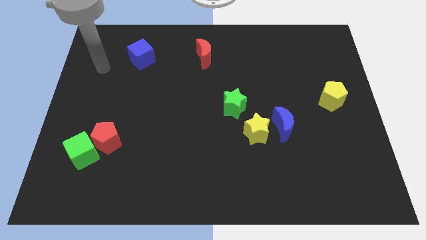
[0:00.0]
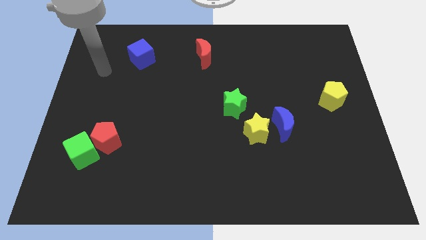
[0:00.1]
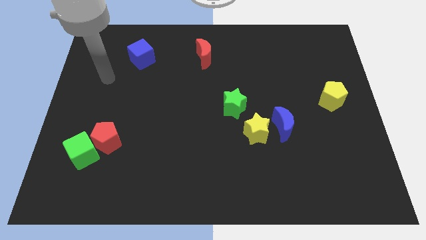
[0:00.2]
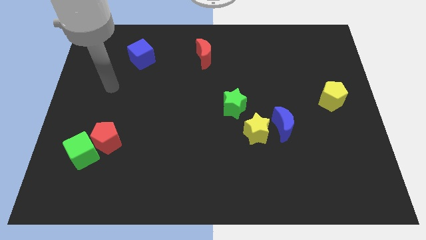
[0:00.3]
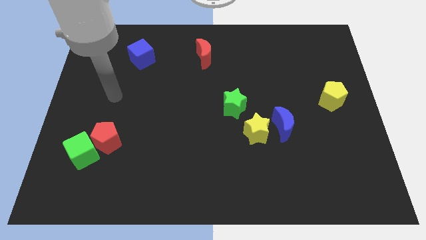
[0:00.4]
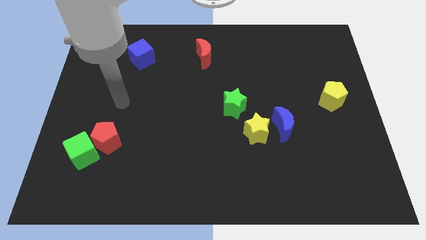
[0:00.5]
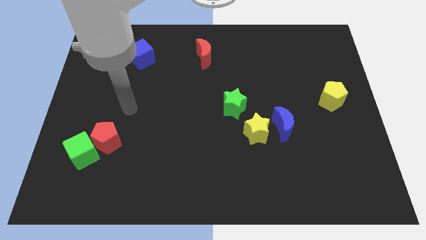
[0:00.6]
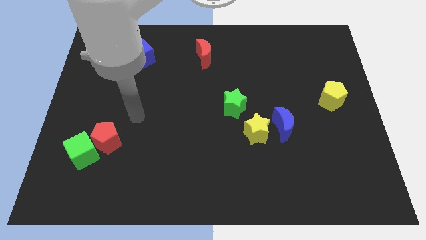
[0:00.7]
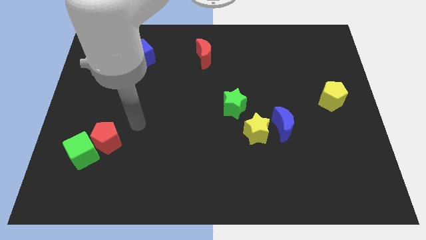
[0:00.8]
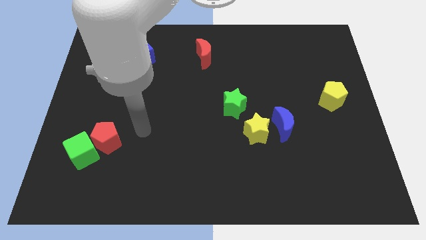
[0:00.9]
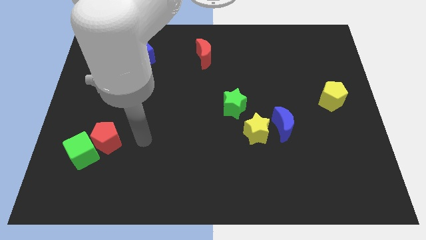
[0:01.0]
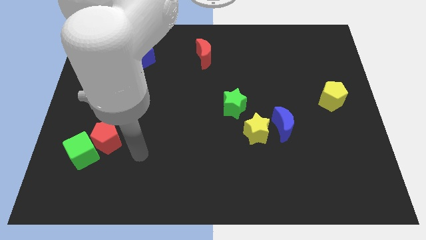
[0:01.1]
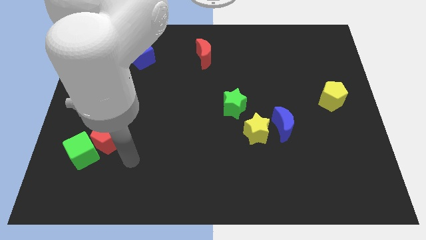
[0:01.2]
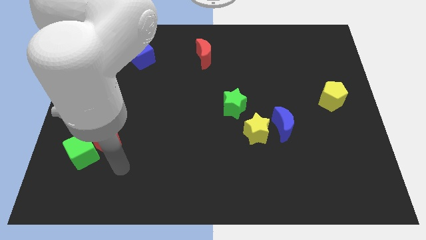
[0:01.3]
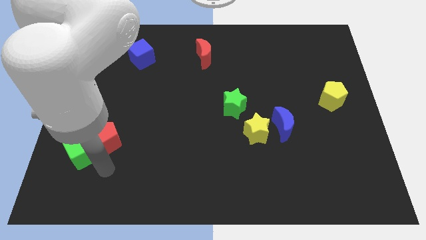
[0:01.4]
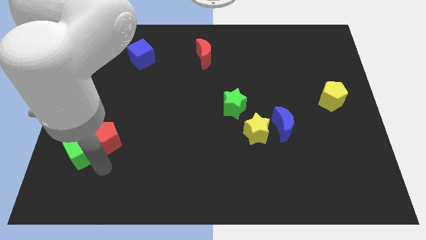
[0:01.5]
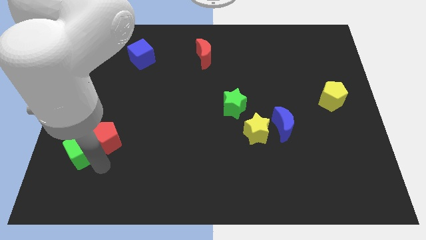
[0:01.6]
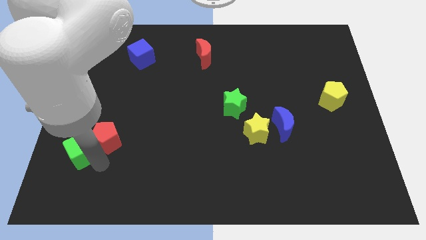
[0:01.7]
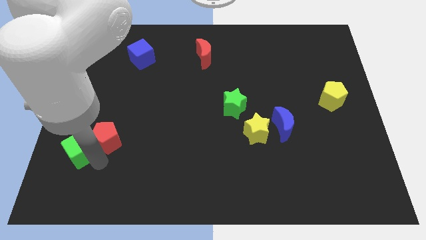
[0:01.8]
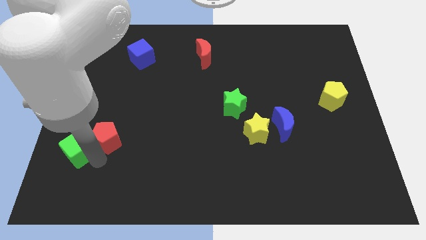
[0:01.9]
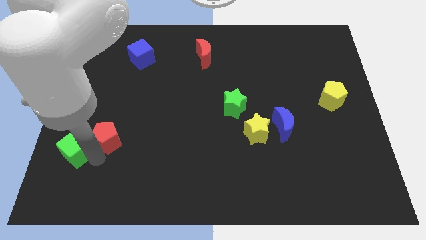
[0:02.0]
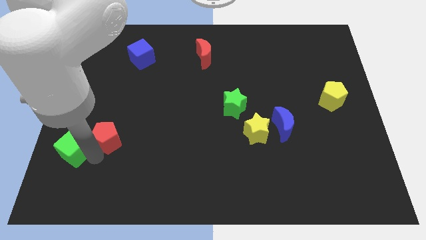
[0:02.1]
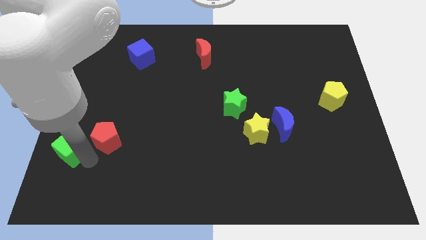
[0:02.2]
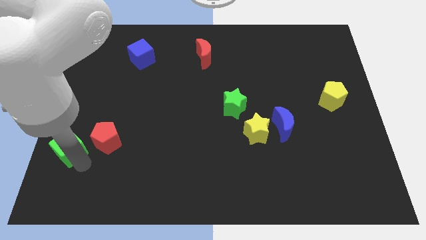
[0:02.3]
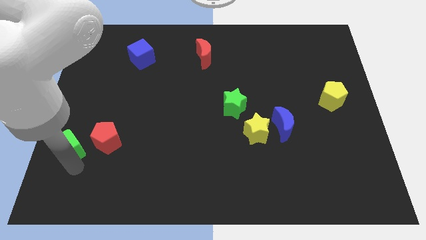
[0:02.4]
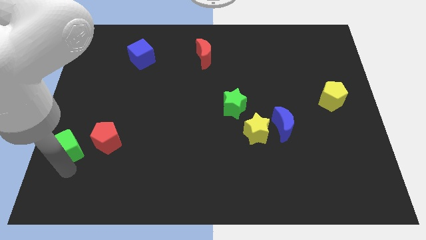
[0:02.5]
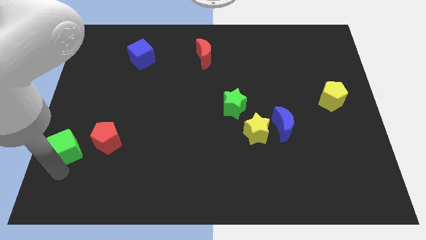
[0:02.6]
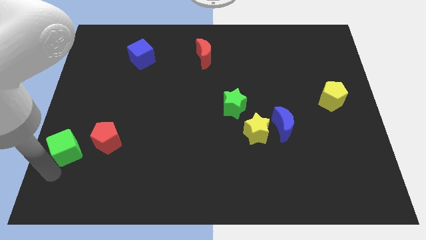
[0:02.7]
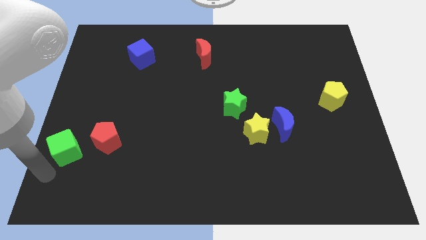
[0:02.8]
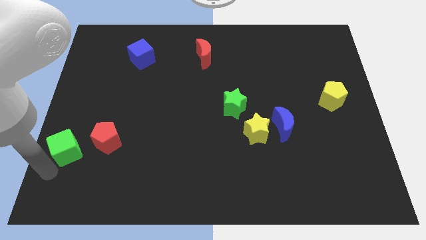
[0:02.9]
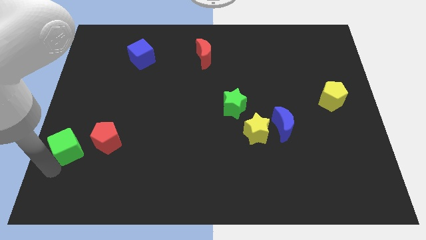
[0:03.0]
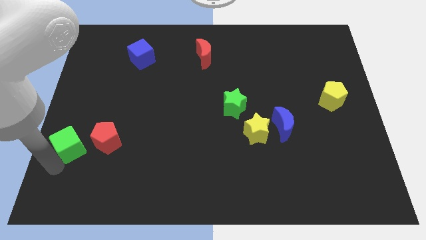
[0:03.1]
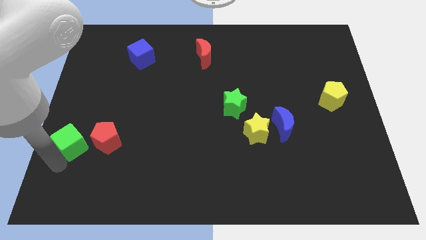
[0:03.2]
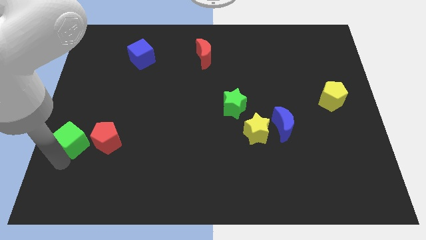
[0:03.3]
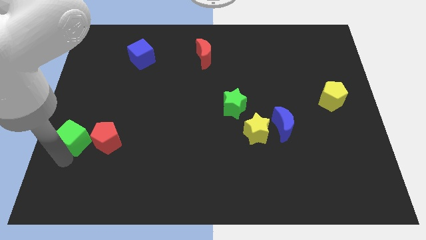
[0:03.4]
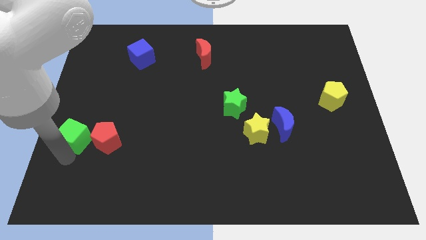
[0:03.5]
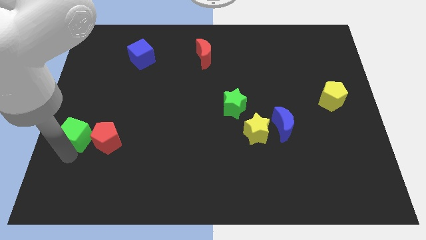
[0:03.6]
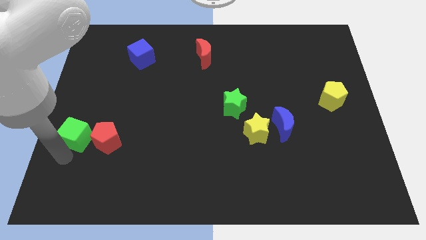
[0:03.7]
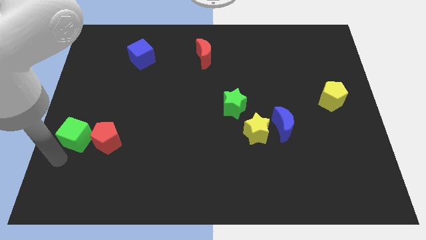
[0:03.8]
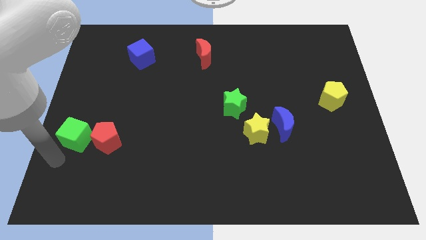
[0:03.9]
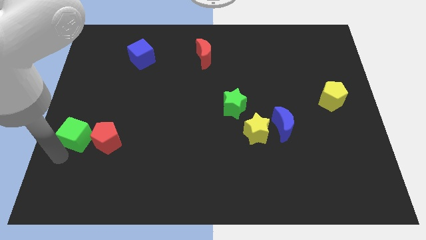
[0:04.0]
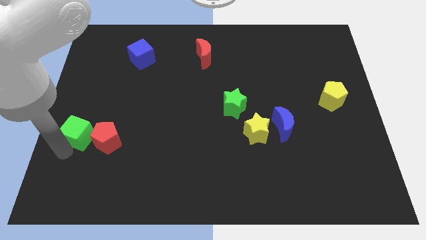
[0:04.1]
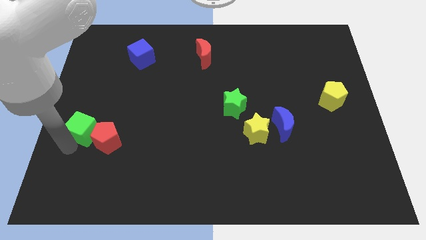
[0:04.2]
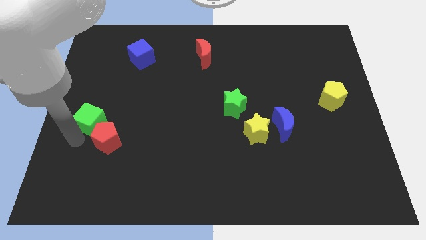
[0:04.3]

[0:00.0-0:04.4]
put the green cube to the top side of the red pentagon

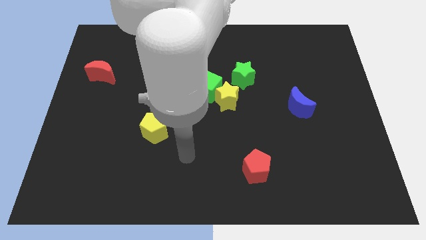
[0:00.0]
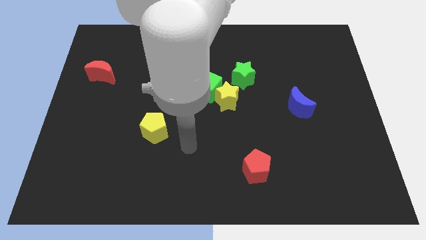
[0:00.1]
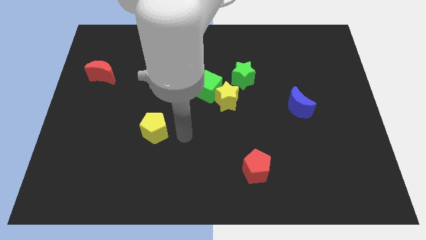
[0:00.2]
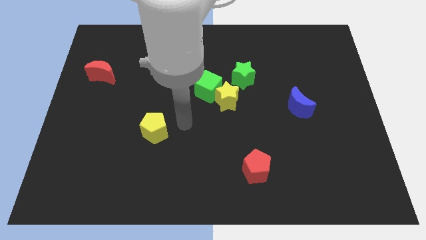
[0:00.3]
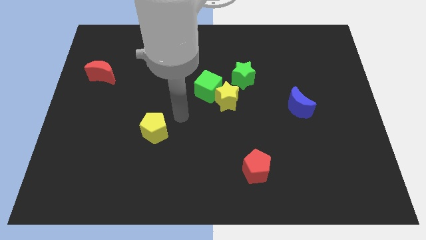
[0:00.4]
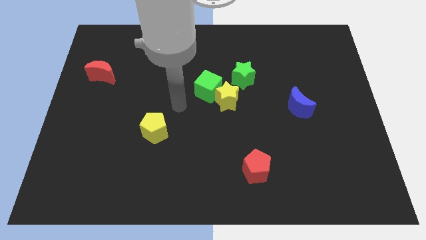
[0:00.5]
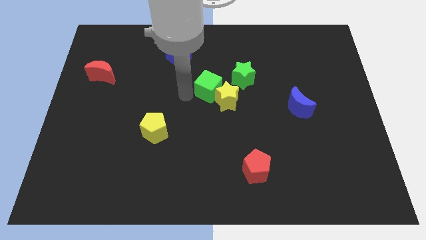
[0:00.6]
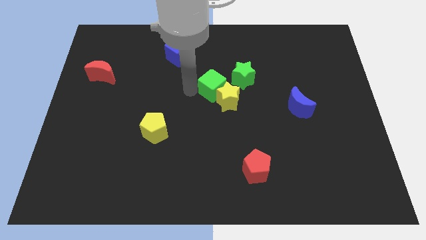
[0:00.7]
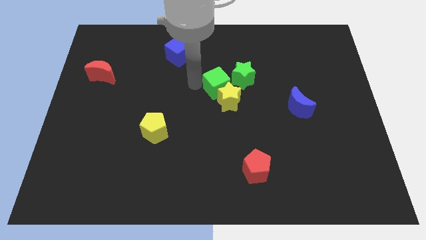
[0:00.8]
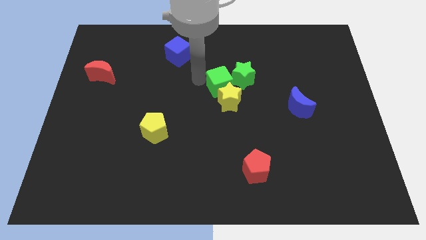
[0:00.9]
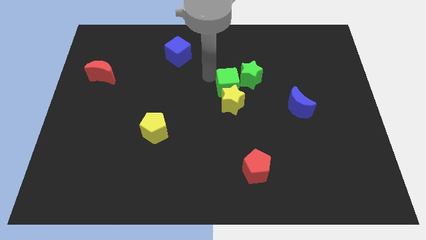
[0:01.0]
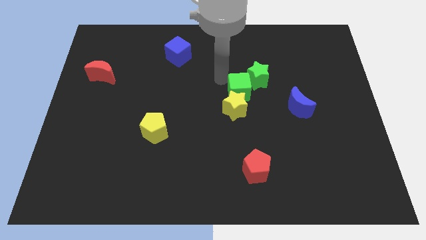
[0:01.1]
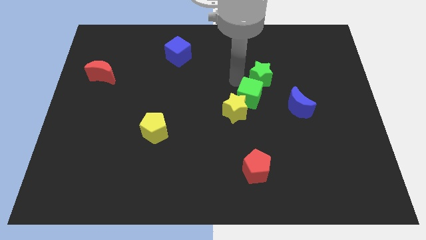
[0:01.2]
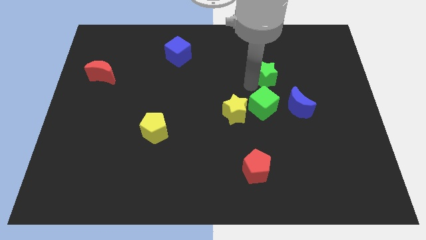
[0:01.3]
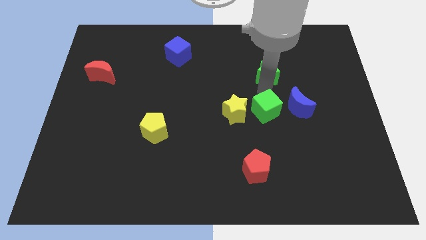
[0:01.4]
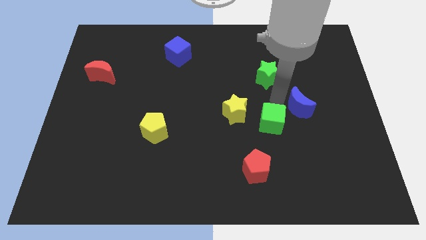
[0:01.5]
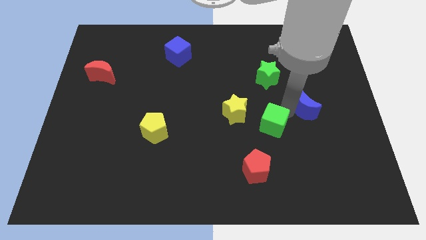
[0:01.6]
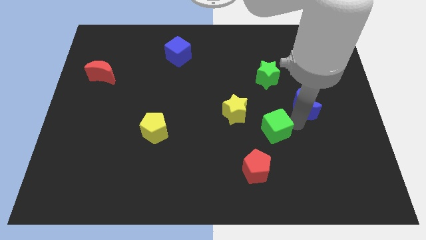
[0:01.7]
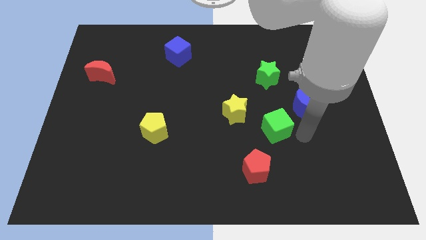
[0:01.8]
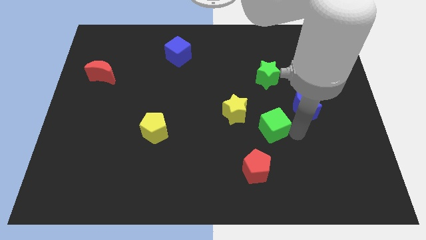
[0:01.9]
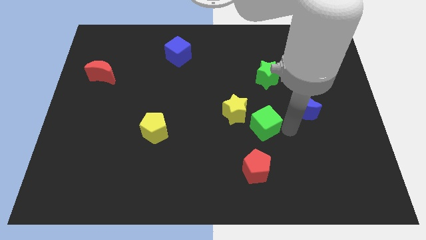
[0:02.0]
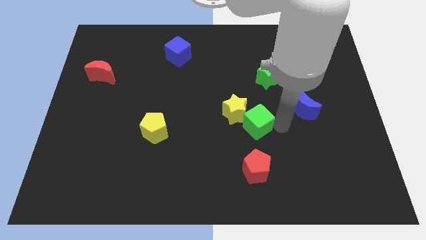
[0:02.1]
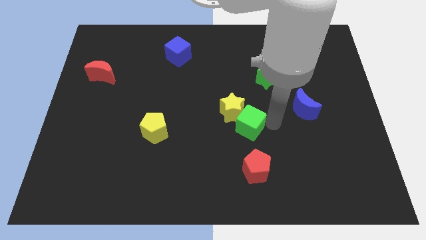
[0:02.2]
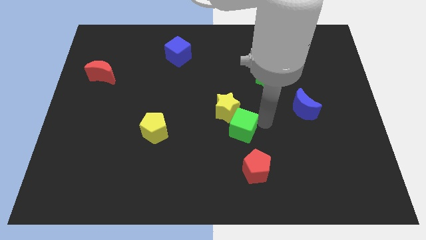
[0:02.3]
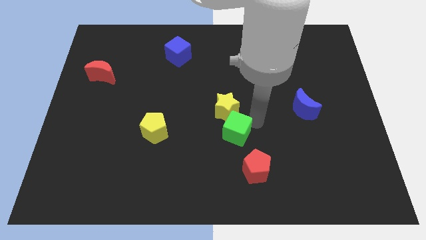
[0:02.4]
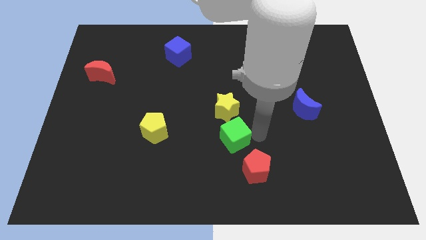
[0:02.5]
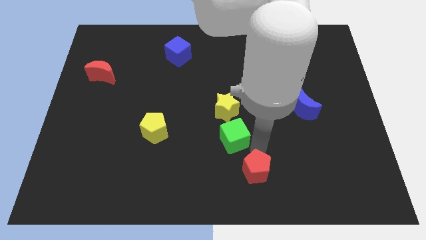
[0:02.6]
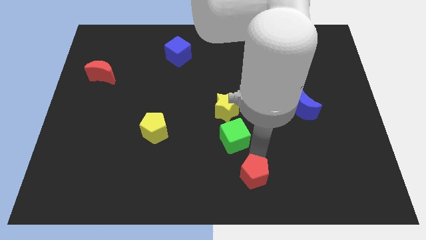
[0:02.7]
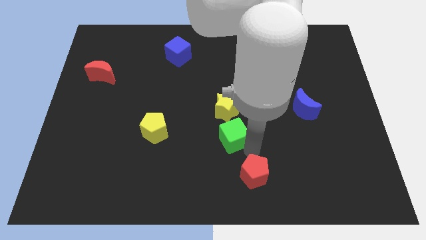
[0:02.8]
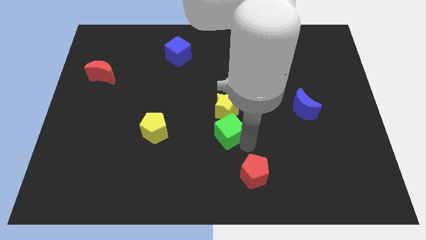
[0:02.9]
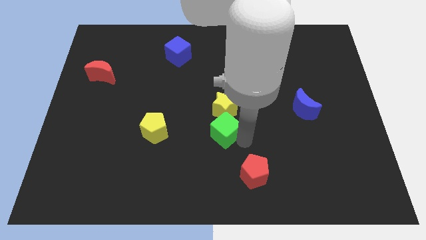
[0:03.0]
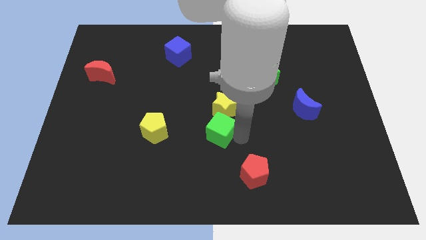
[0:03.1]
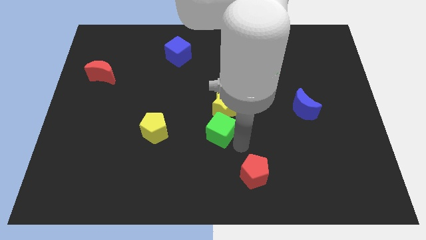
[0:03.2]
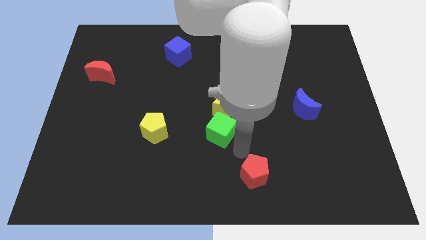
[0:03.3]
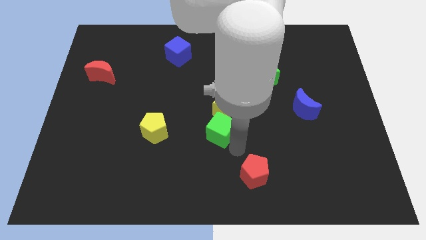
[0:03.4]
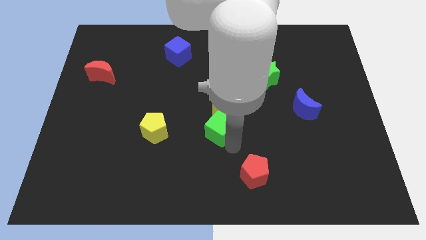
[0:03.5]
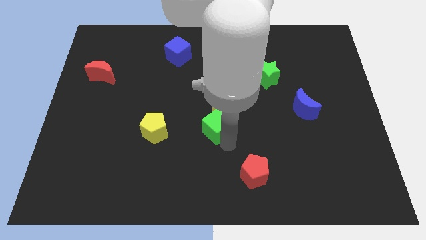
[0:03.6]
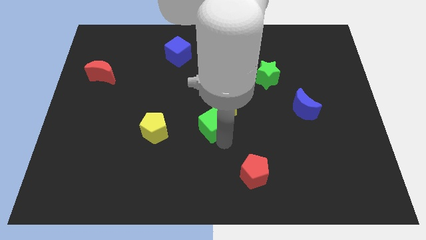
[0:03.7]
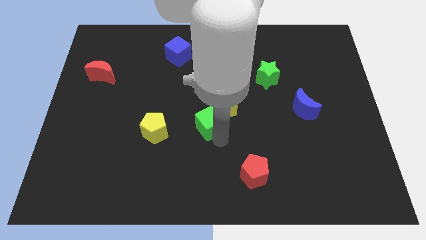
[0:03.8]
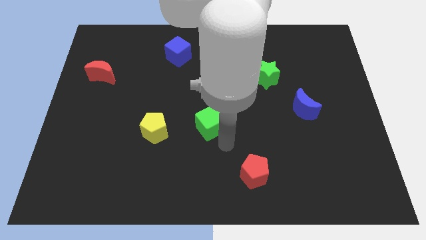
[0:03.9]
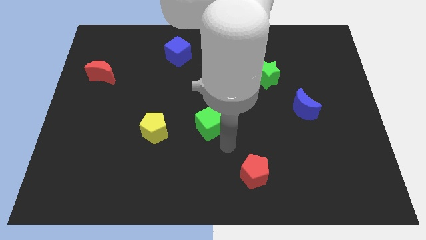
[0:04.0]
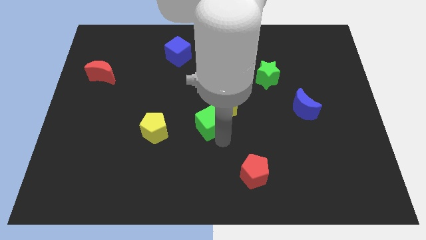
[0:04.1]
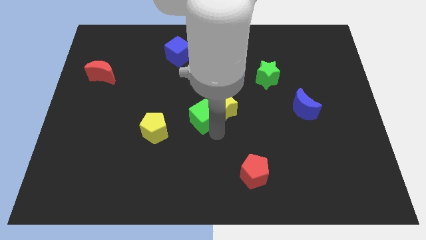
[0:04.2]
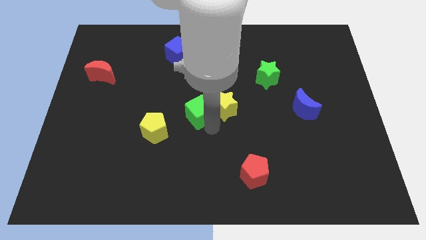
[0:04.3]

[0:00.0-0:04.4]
slide the green cube diagonally up and to the right of the yellow pentagon
